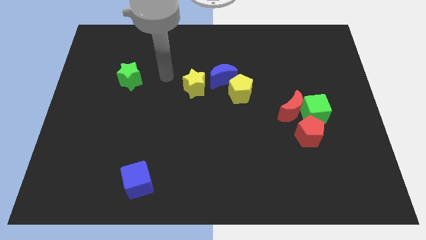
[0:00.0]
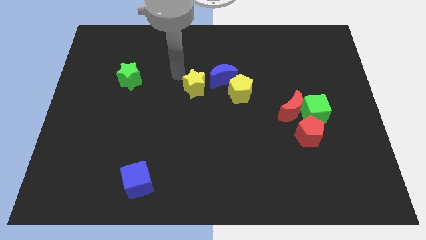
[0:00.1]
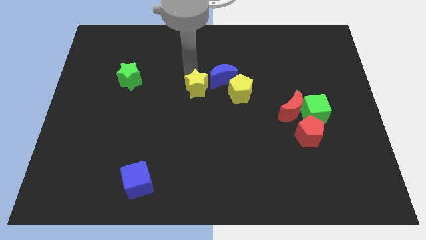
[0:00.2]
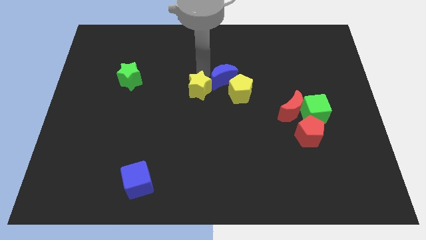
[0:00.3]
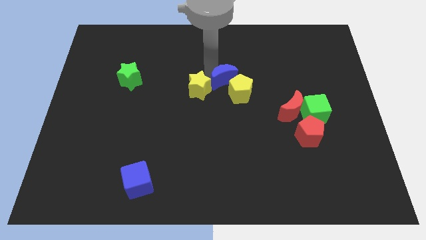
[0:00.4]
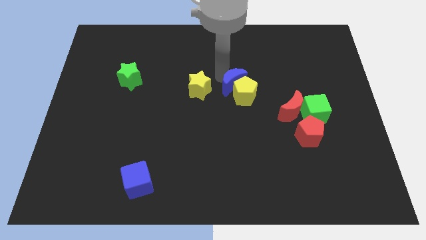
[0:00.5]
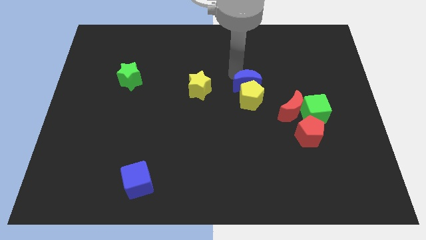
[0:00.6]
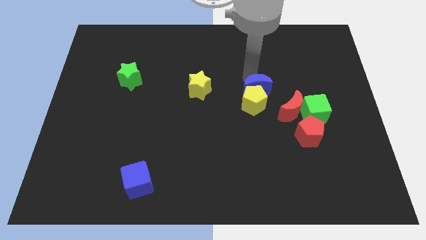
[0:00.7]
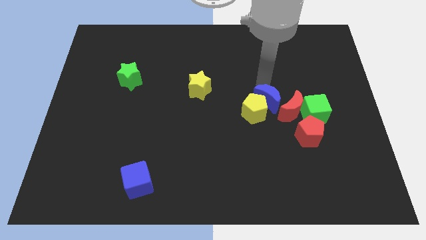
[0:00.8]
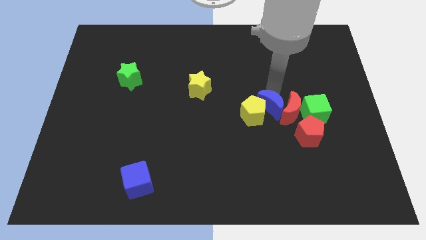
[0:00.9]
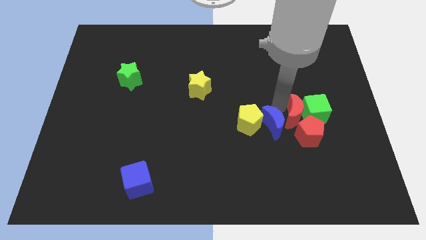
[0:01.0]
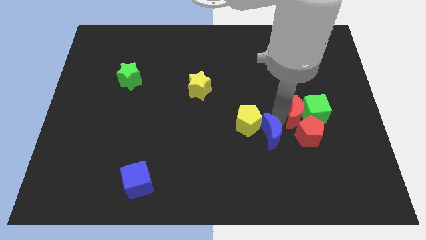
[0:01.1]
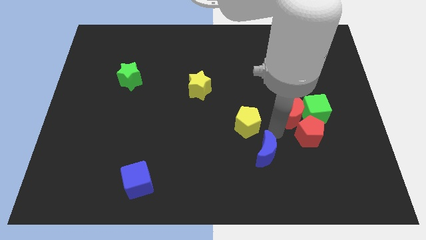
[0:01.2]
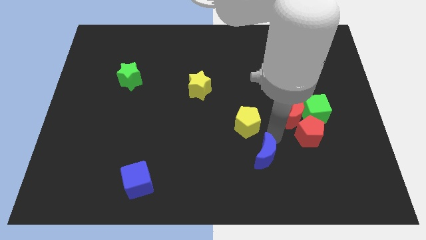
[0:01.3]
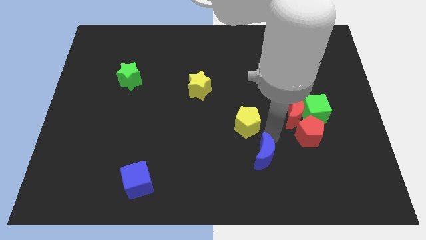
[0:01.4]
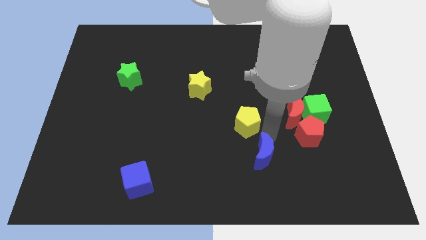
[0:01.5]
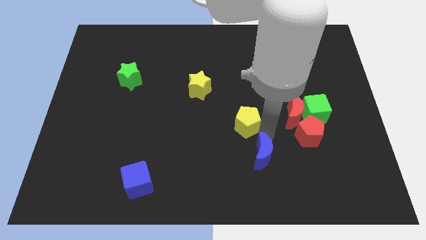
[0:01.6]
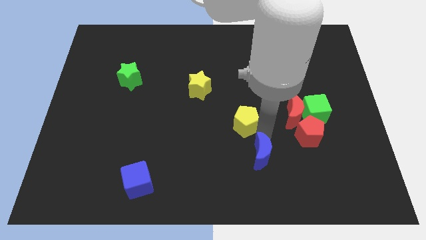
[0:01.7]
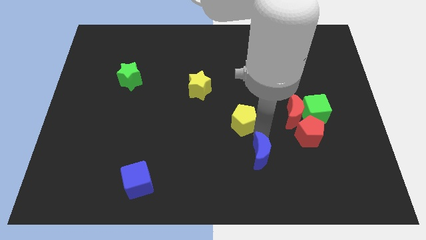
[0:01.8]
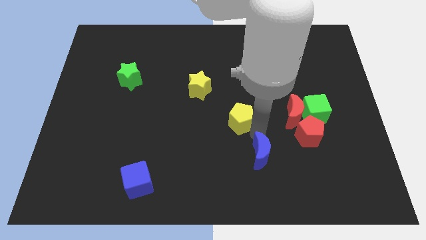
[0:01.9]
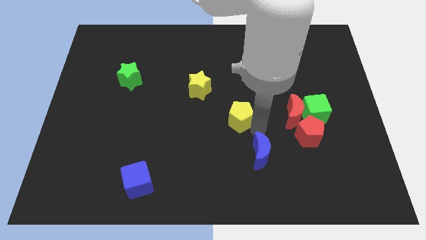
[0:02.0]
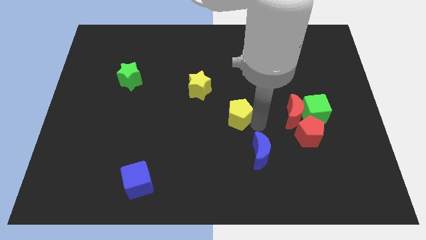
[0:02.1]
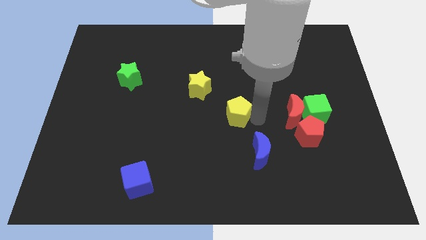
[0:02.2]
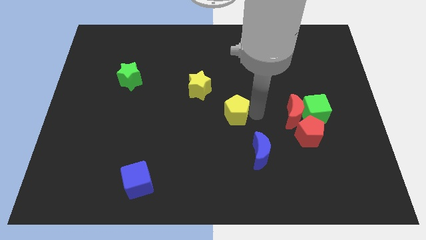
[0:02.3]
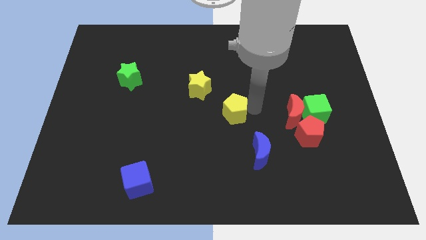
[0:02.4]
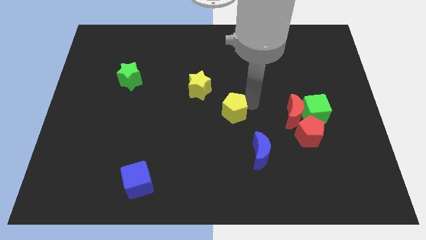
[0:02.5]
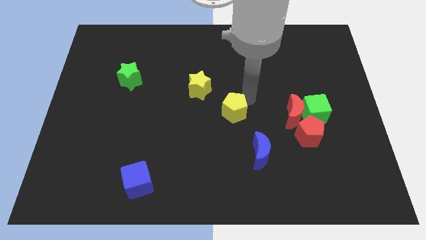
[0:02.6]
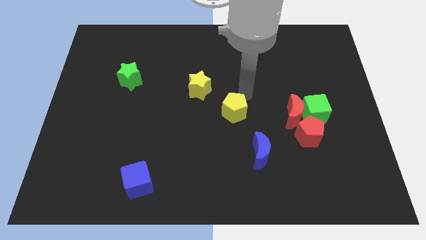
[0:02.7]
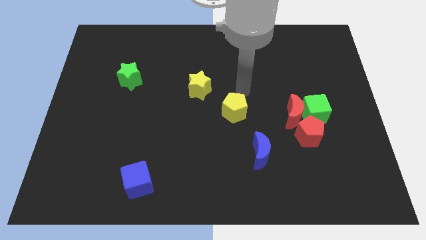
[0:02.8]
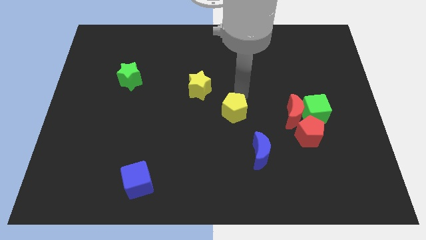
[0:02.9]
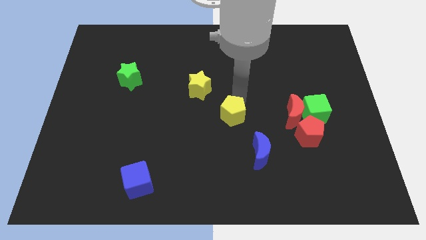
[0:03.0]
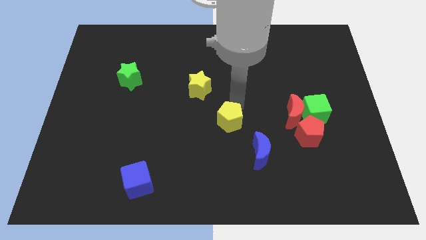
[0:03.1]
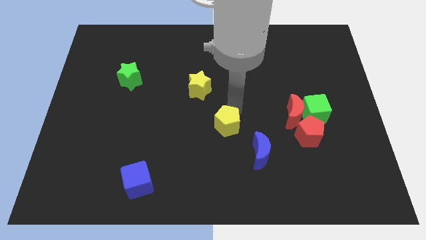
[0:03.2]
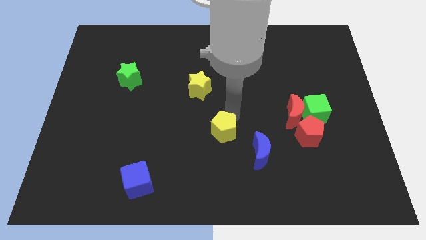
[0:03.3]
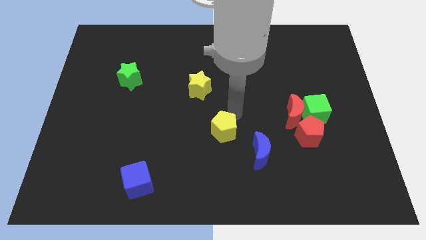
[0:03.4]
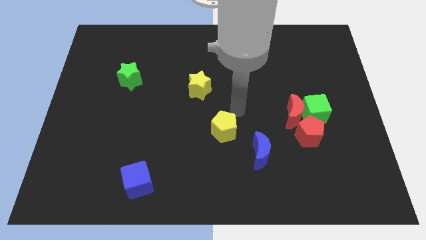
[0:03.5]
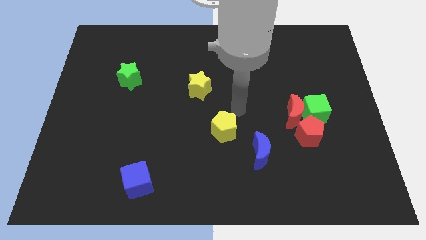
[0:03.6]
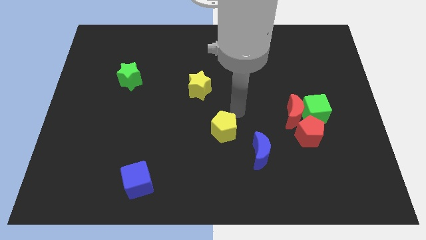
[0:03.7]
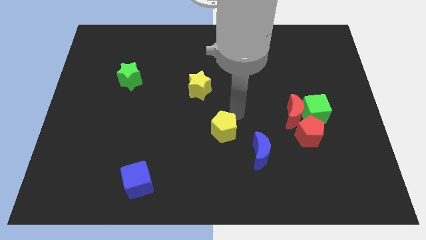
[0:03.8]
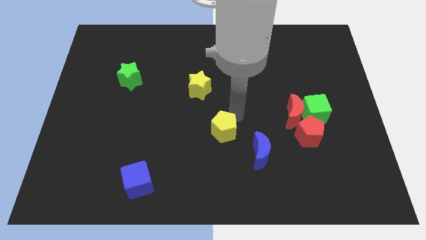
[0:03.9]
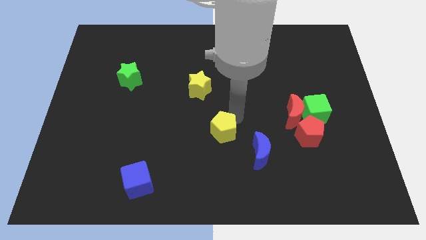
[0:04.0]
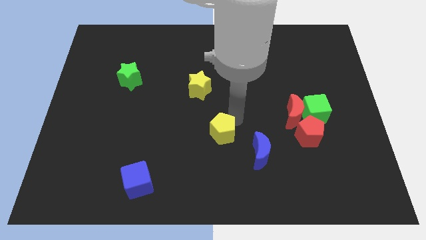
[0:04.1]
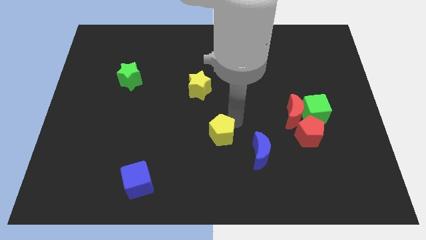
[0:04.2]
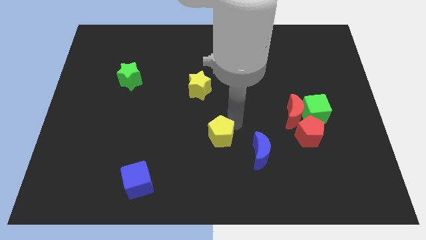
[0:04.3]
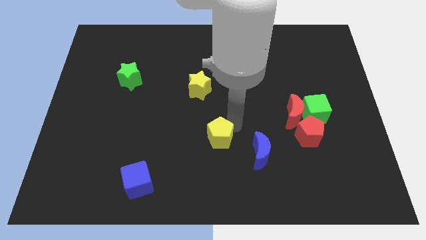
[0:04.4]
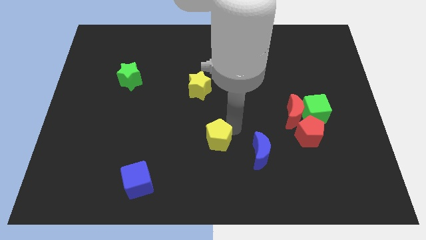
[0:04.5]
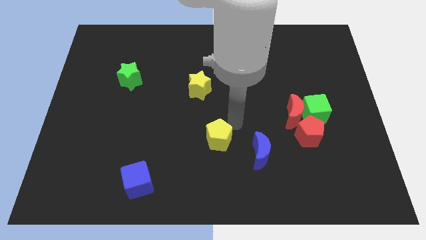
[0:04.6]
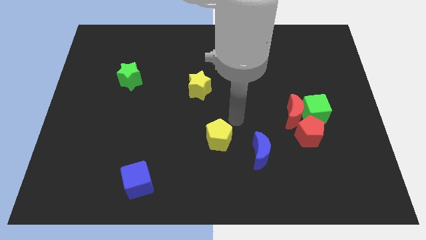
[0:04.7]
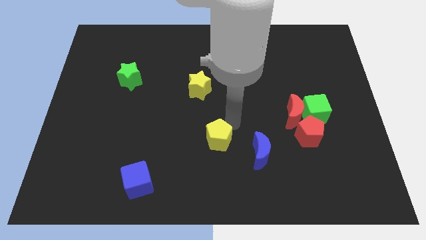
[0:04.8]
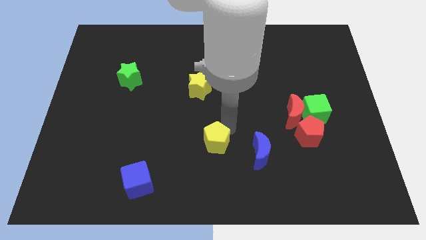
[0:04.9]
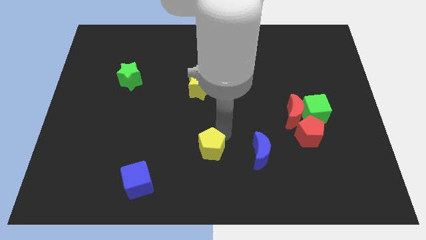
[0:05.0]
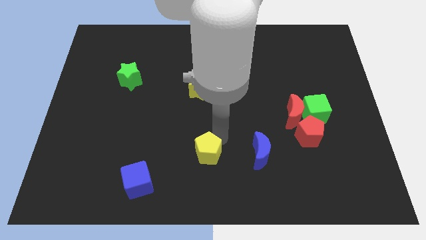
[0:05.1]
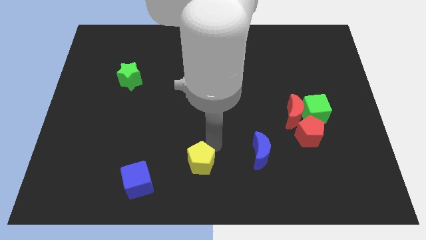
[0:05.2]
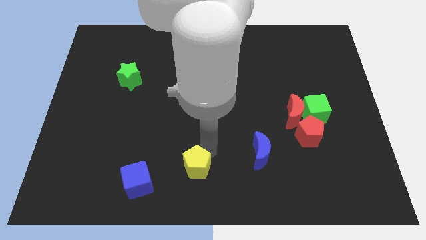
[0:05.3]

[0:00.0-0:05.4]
put the yellow pentagon right of the blue cube

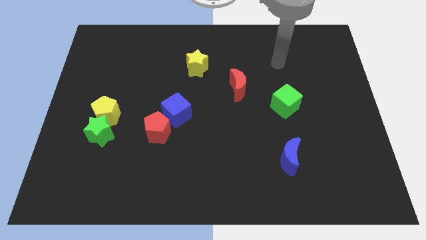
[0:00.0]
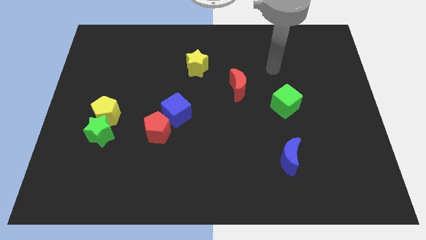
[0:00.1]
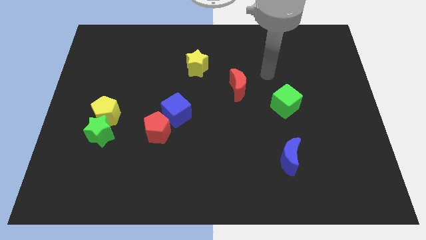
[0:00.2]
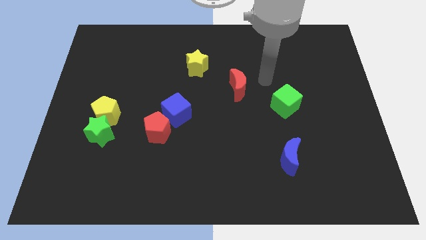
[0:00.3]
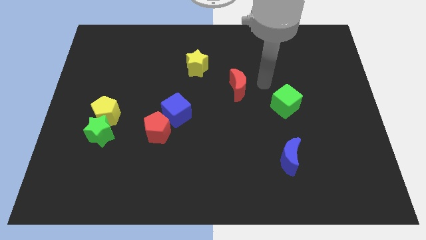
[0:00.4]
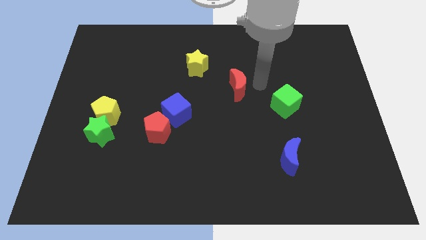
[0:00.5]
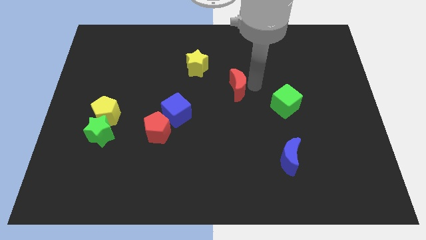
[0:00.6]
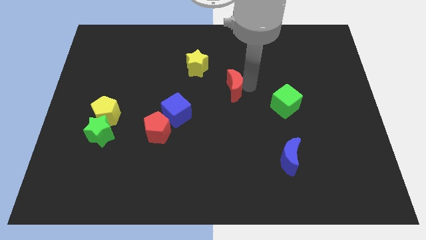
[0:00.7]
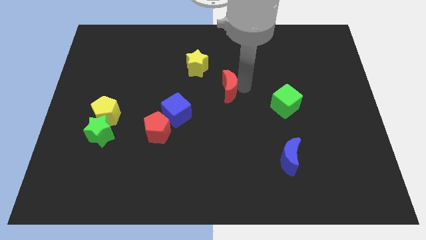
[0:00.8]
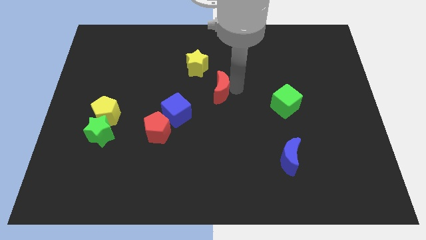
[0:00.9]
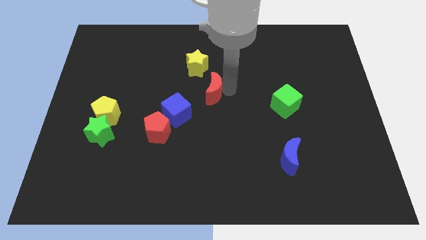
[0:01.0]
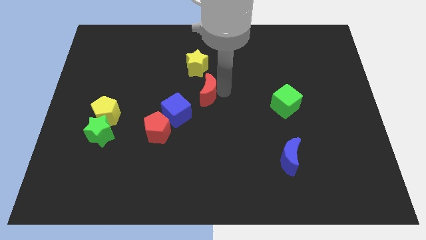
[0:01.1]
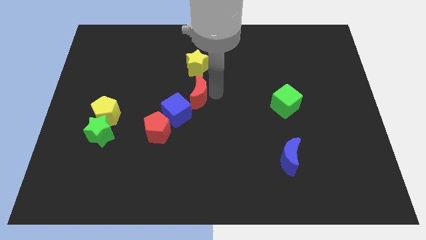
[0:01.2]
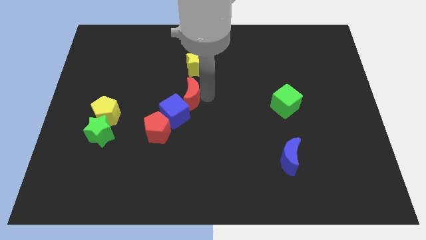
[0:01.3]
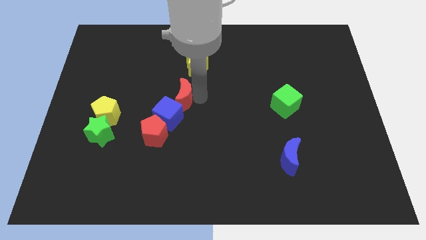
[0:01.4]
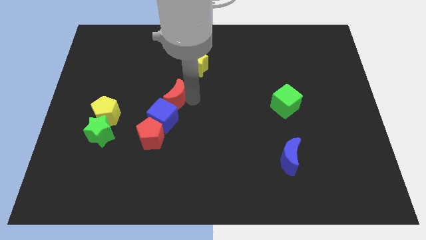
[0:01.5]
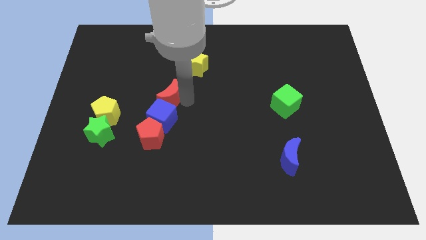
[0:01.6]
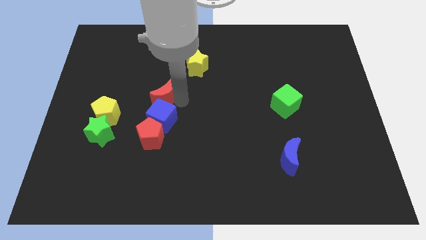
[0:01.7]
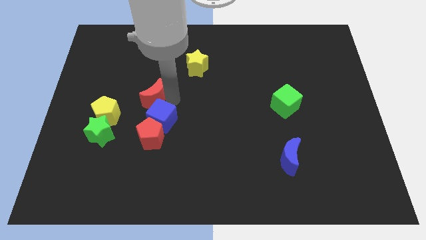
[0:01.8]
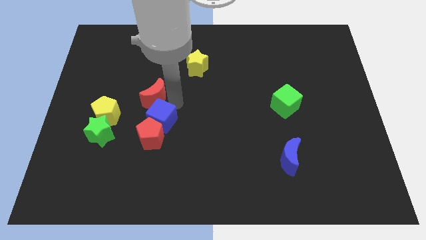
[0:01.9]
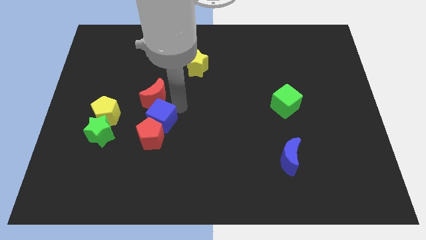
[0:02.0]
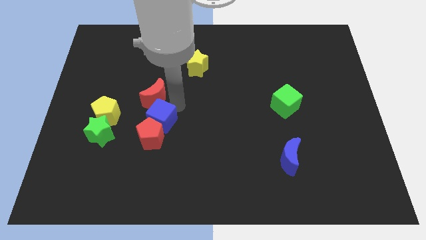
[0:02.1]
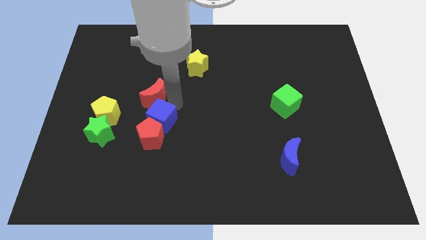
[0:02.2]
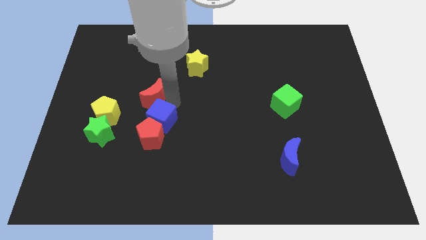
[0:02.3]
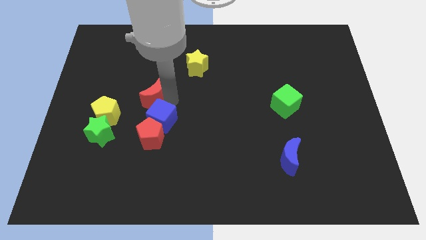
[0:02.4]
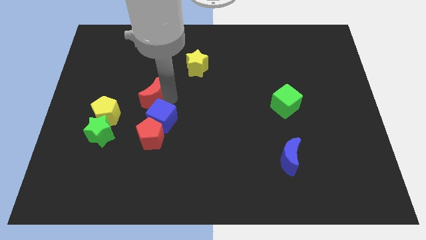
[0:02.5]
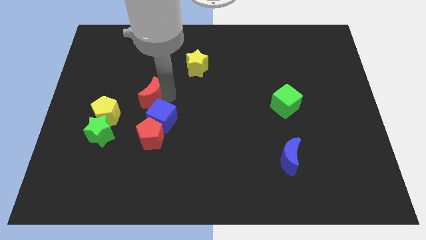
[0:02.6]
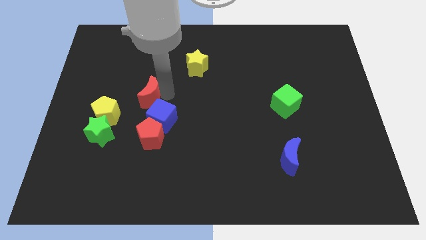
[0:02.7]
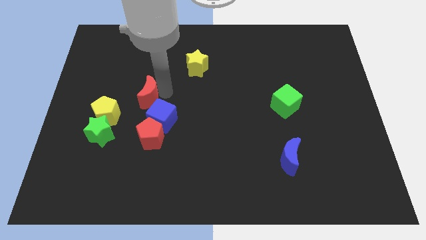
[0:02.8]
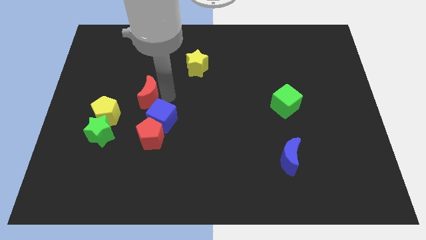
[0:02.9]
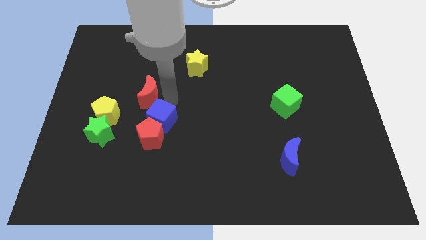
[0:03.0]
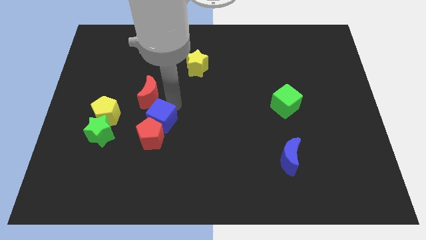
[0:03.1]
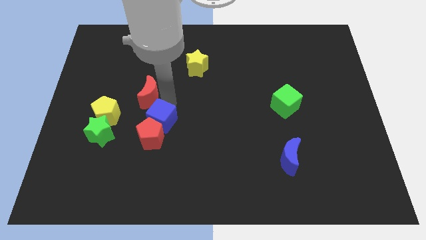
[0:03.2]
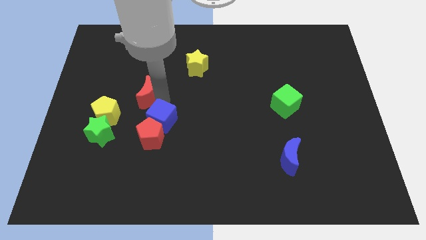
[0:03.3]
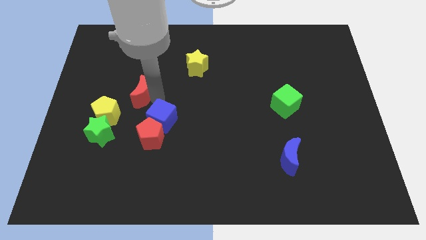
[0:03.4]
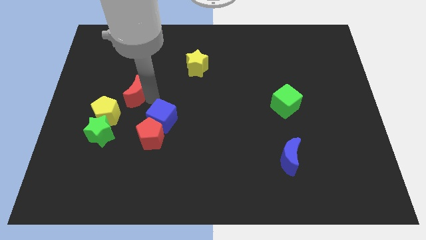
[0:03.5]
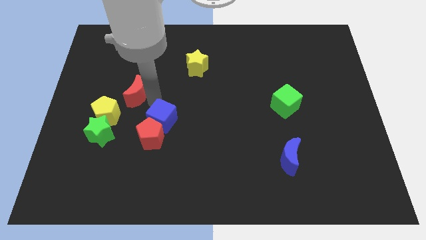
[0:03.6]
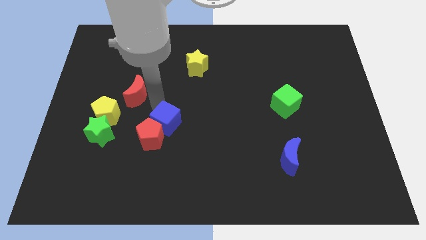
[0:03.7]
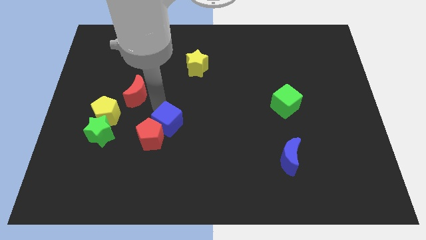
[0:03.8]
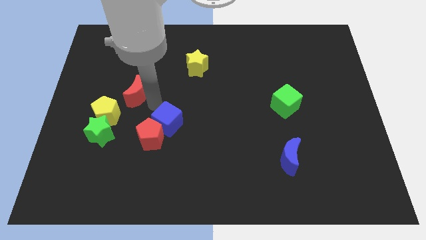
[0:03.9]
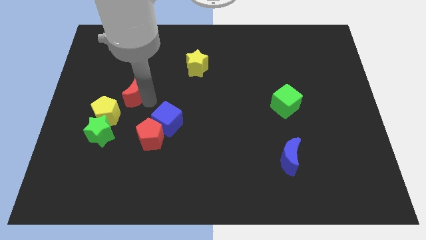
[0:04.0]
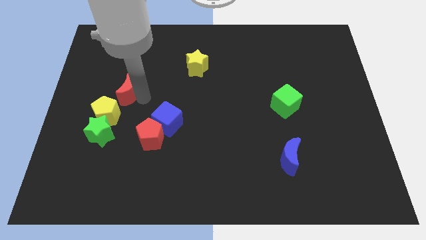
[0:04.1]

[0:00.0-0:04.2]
push the red moon above the yellow pentagon
